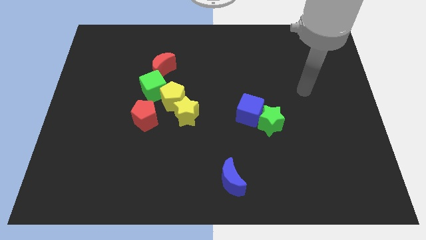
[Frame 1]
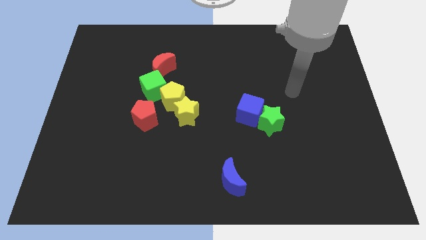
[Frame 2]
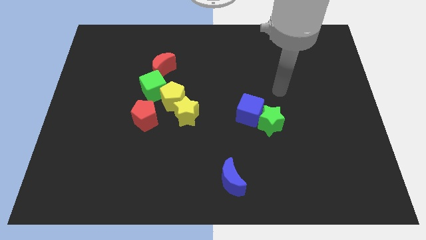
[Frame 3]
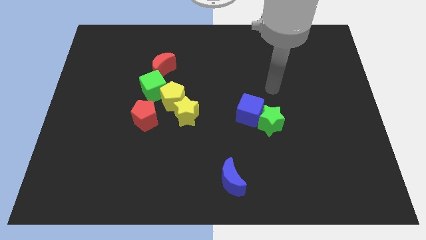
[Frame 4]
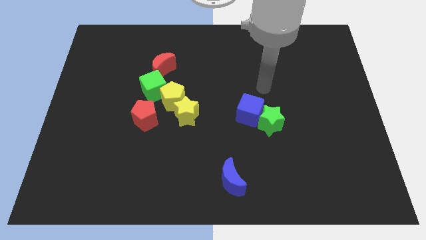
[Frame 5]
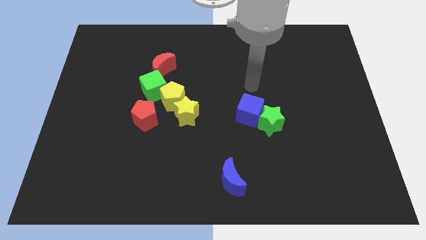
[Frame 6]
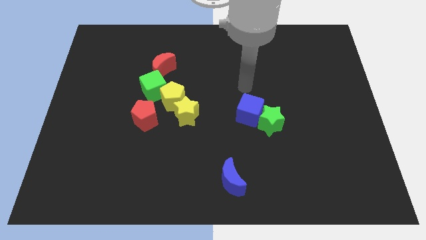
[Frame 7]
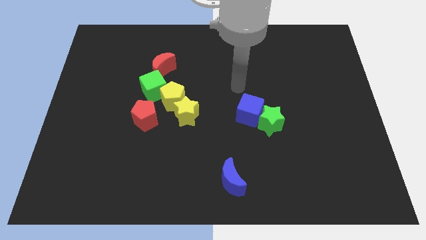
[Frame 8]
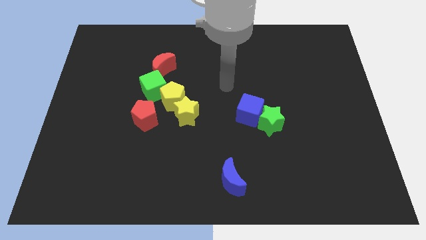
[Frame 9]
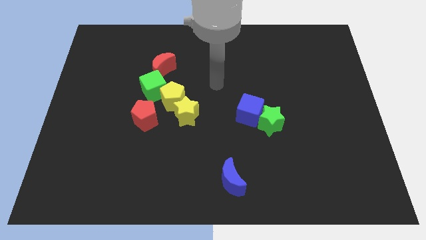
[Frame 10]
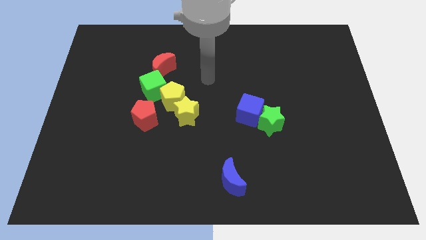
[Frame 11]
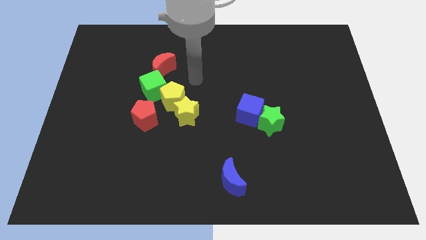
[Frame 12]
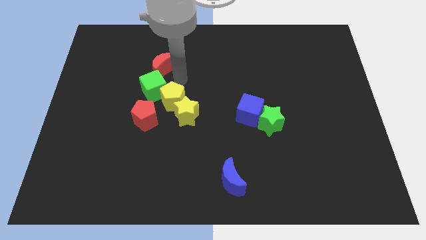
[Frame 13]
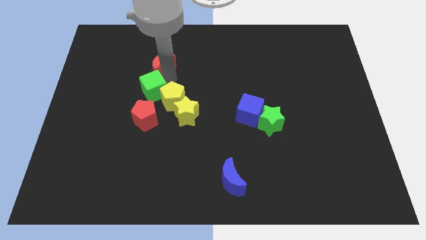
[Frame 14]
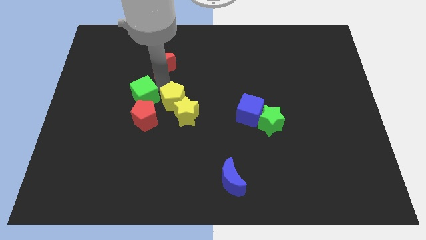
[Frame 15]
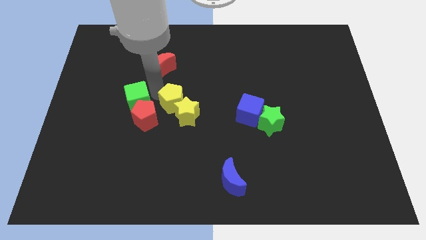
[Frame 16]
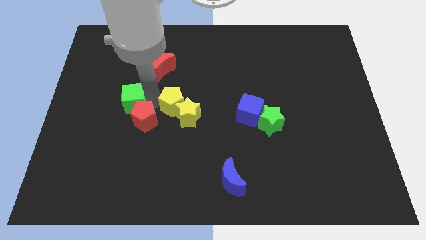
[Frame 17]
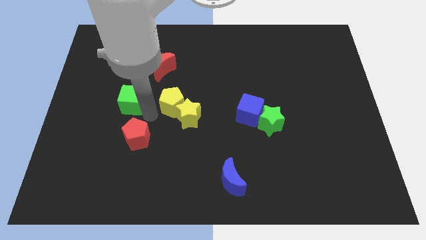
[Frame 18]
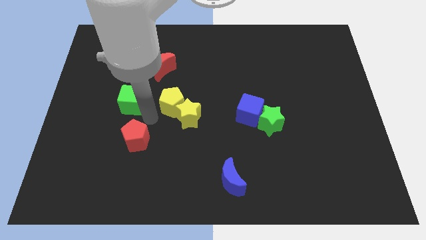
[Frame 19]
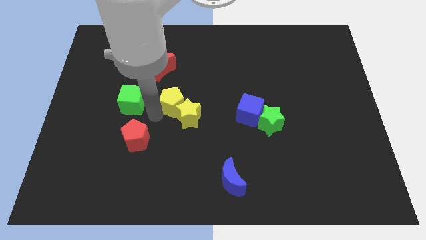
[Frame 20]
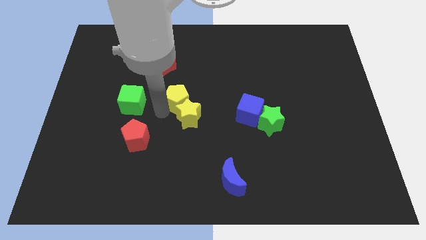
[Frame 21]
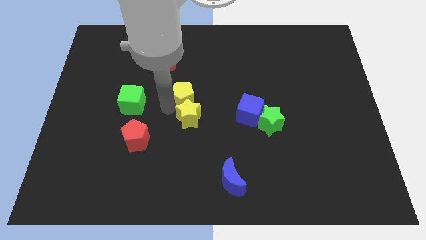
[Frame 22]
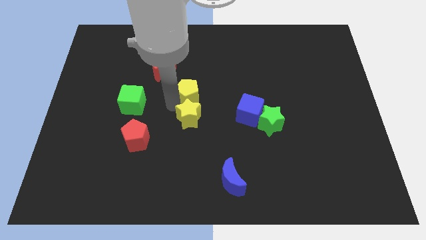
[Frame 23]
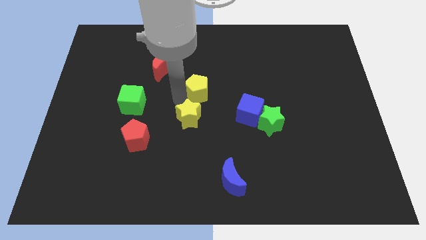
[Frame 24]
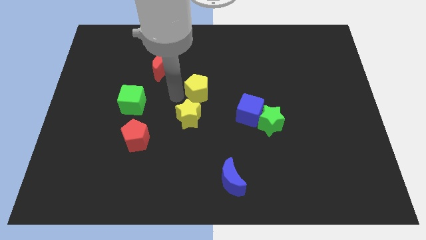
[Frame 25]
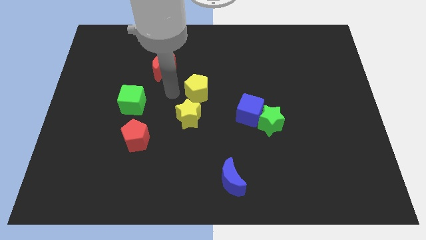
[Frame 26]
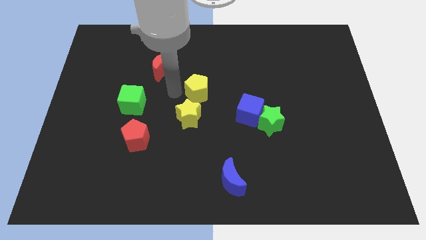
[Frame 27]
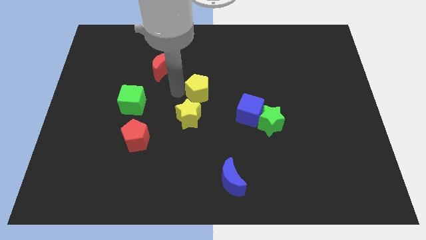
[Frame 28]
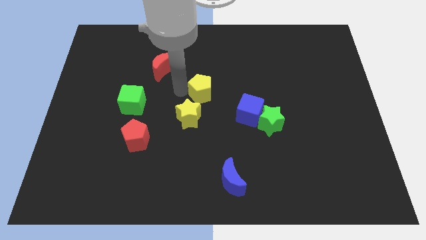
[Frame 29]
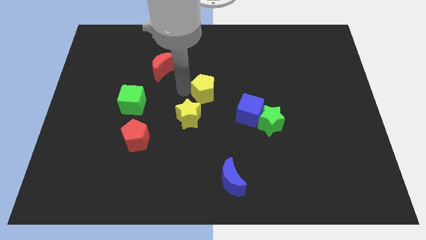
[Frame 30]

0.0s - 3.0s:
slightly push the yellow pentagon to the right

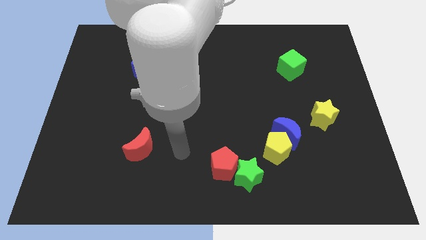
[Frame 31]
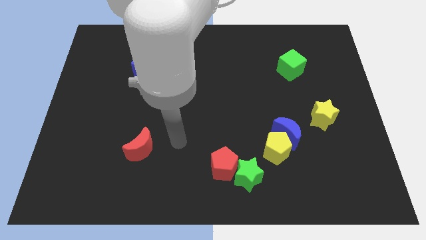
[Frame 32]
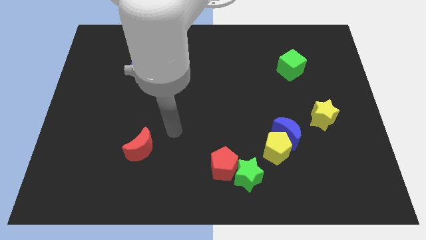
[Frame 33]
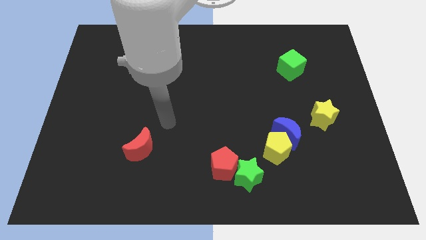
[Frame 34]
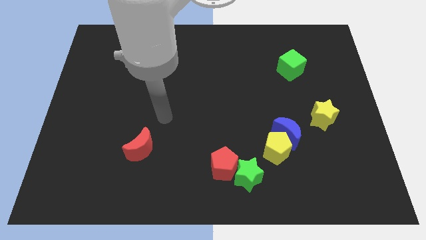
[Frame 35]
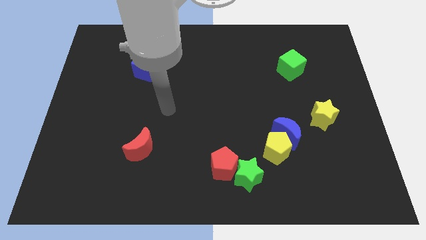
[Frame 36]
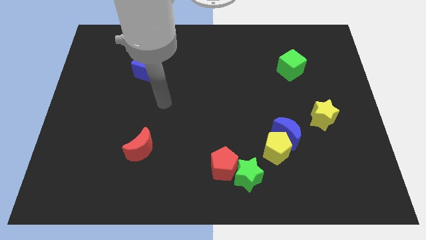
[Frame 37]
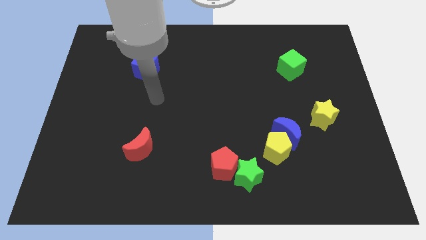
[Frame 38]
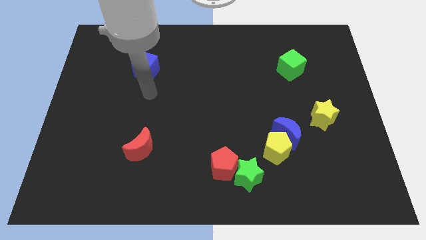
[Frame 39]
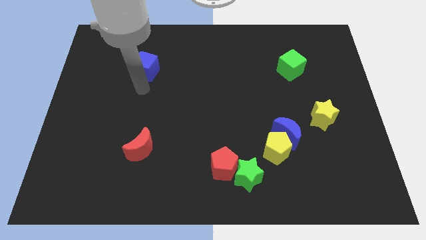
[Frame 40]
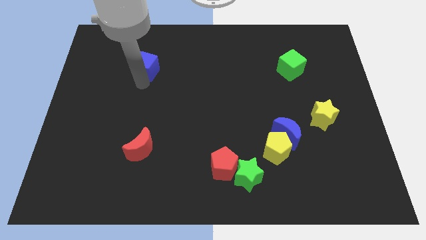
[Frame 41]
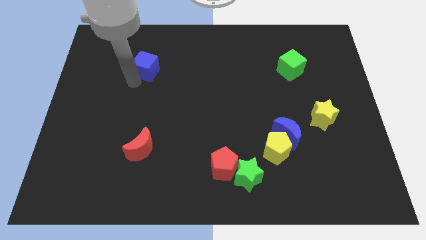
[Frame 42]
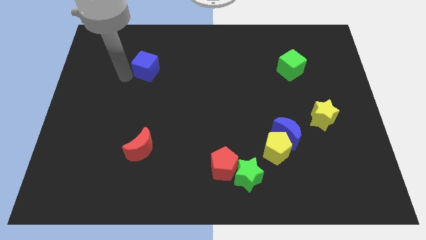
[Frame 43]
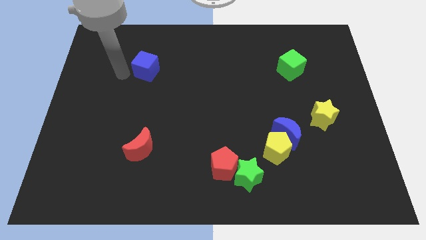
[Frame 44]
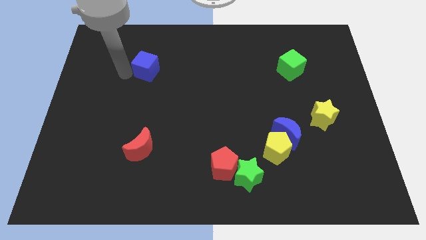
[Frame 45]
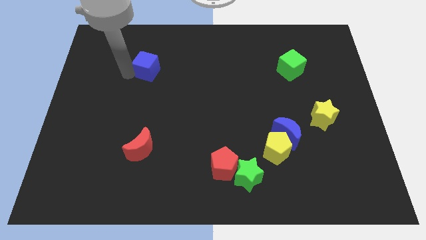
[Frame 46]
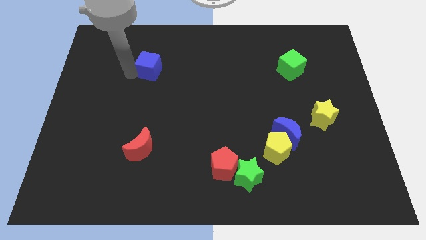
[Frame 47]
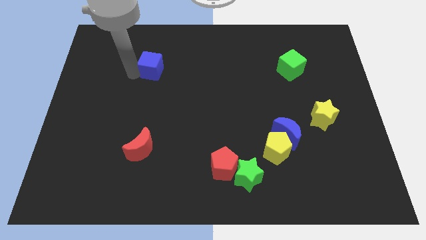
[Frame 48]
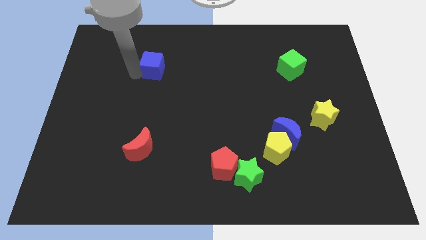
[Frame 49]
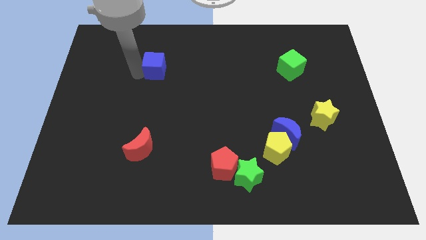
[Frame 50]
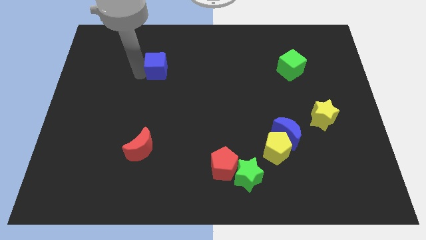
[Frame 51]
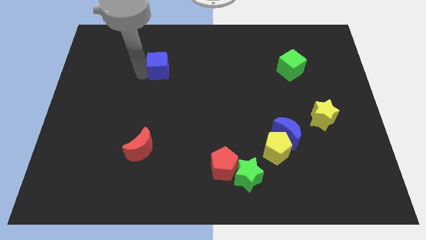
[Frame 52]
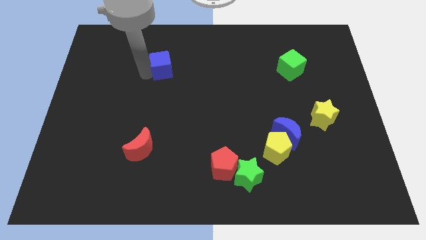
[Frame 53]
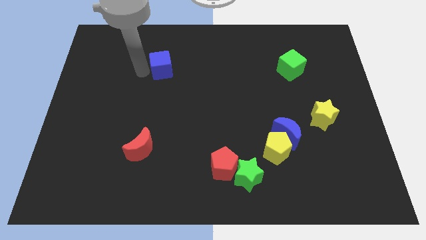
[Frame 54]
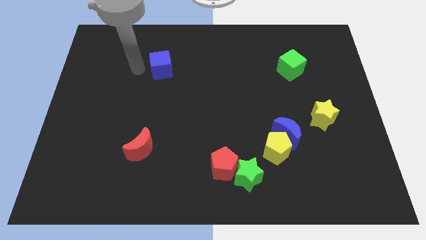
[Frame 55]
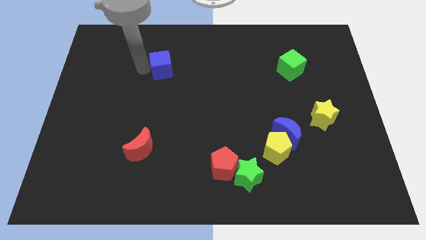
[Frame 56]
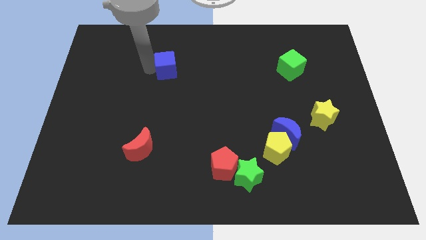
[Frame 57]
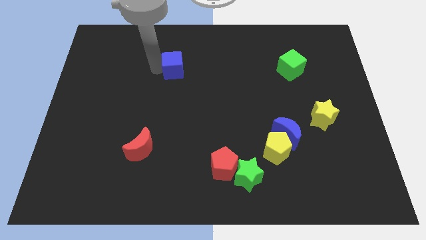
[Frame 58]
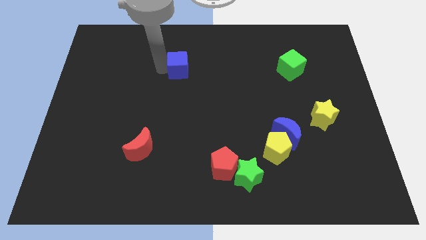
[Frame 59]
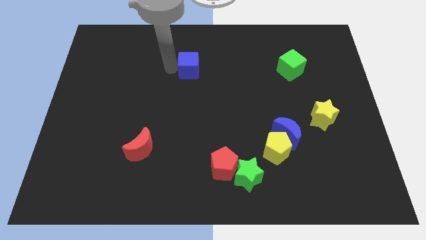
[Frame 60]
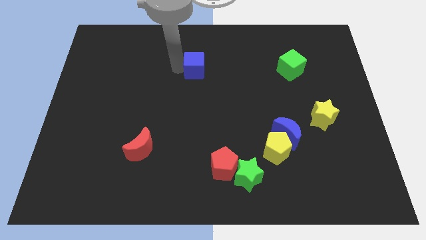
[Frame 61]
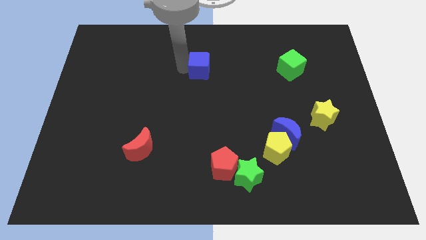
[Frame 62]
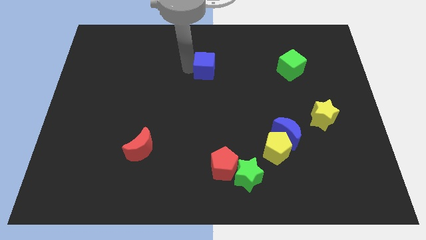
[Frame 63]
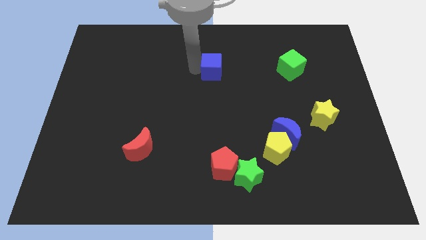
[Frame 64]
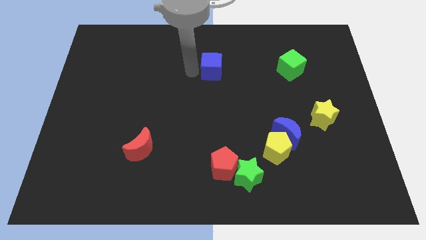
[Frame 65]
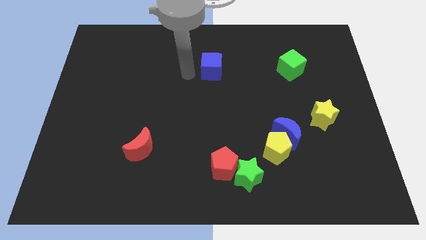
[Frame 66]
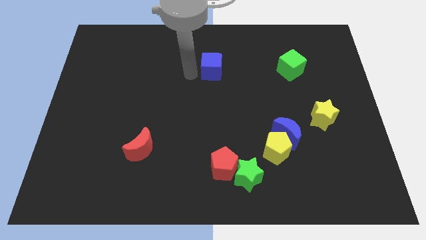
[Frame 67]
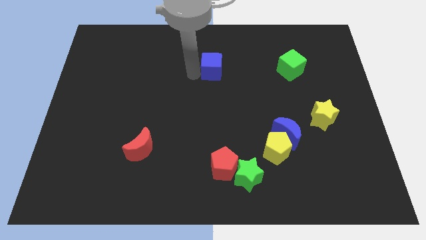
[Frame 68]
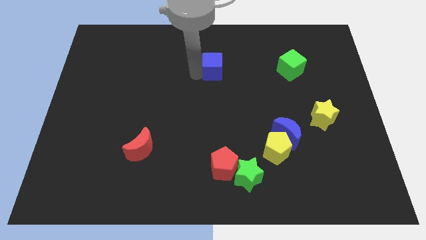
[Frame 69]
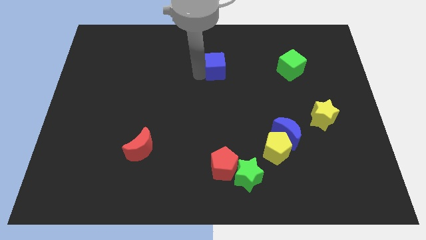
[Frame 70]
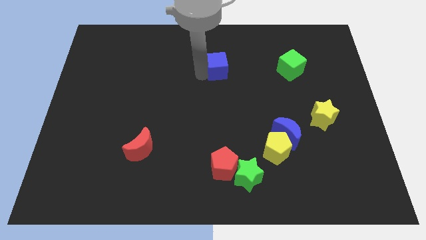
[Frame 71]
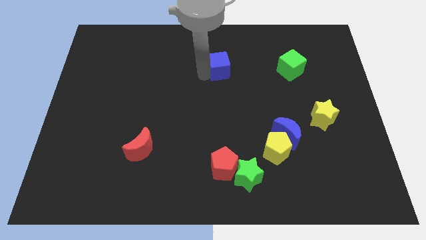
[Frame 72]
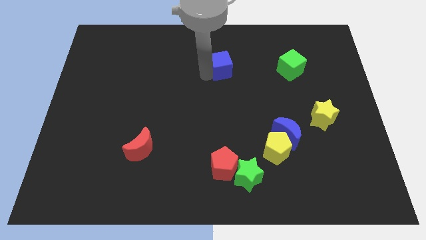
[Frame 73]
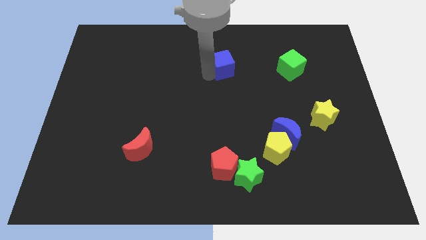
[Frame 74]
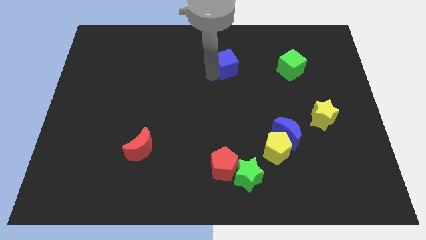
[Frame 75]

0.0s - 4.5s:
move the blue cube right

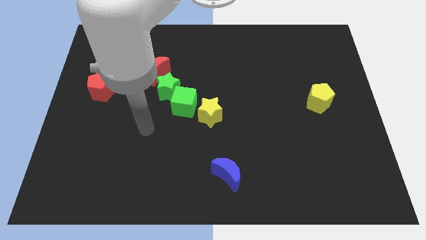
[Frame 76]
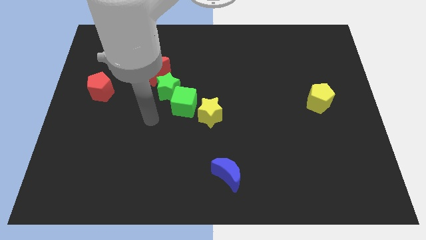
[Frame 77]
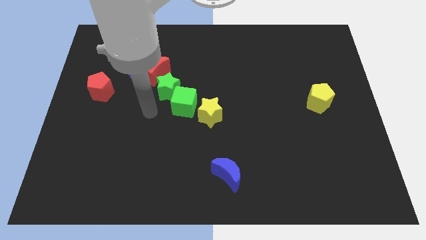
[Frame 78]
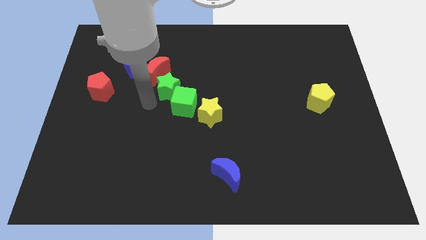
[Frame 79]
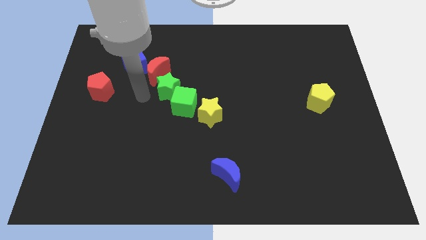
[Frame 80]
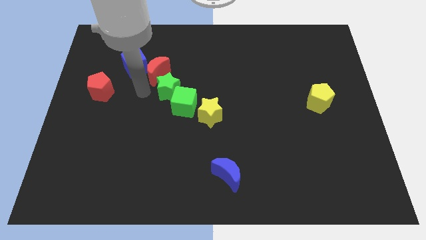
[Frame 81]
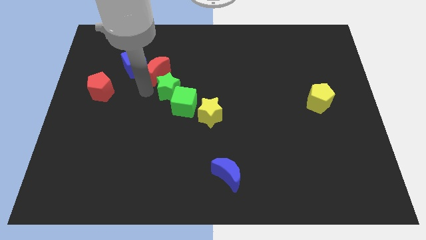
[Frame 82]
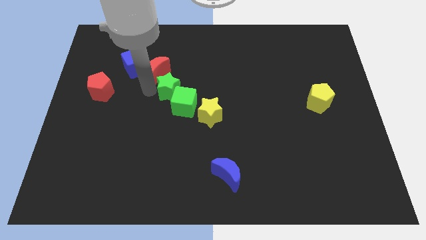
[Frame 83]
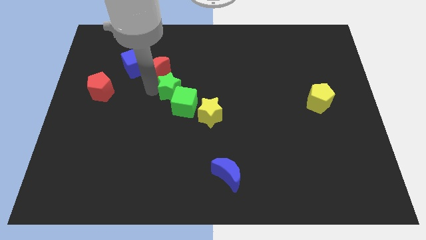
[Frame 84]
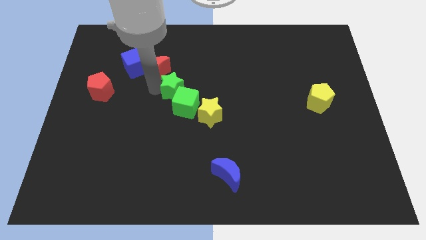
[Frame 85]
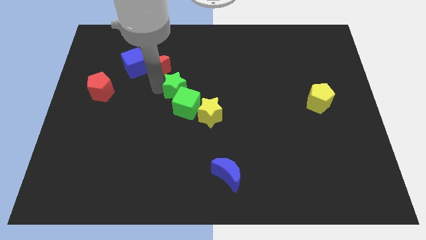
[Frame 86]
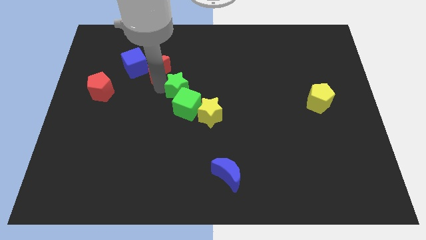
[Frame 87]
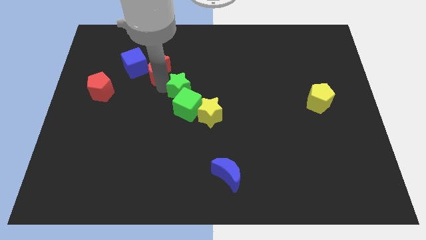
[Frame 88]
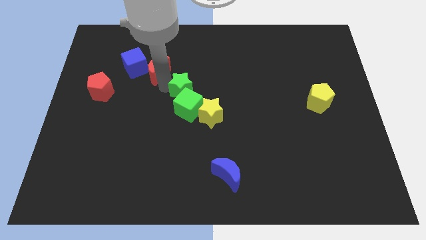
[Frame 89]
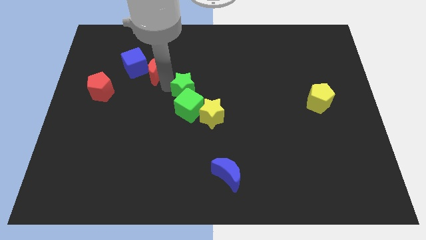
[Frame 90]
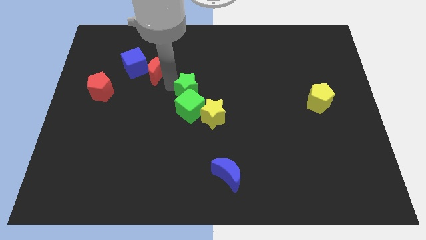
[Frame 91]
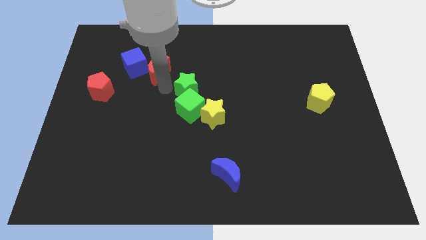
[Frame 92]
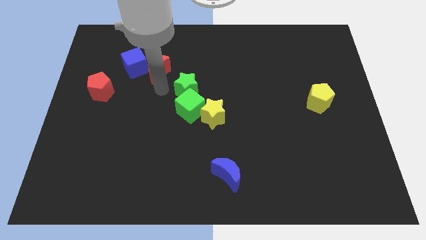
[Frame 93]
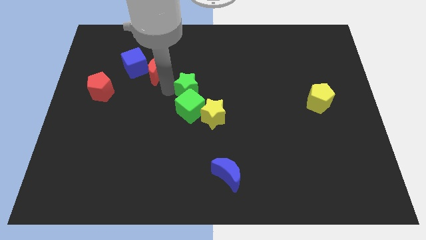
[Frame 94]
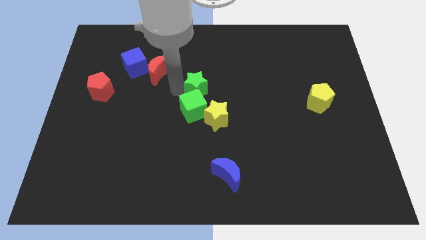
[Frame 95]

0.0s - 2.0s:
move the green star a bit to the right
